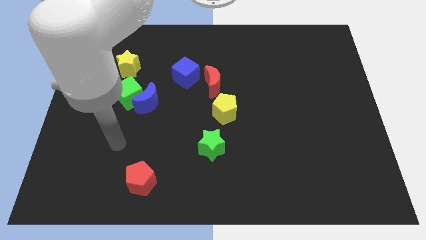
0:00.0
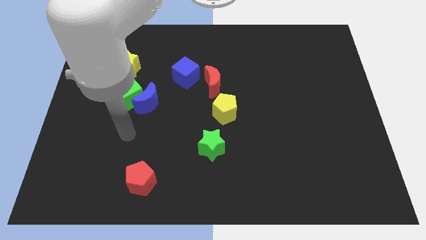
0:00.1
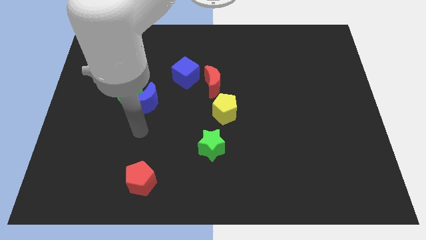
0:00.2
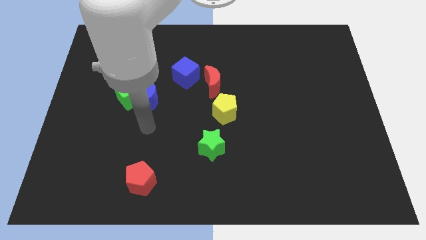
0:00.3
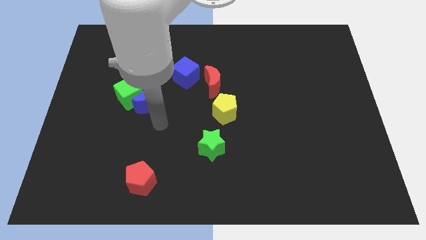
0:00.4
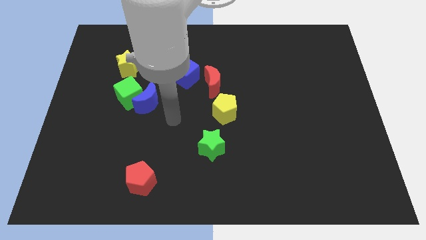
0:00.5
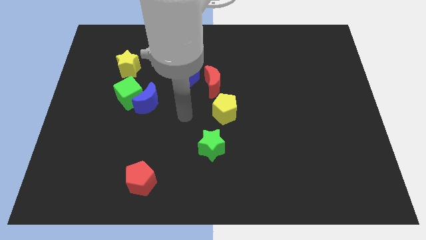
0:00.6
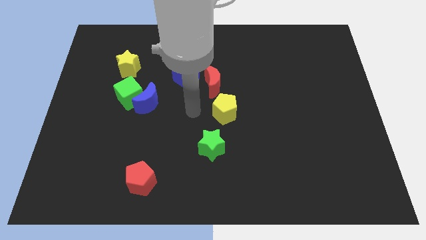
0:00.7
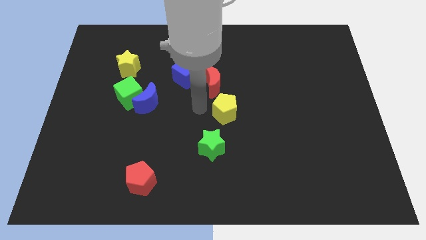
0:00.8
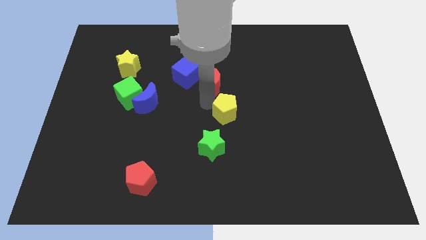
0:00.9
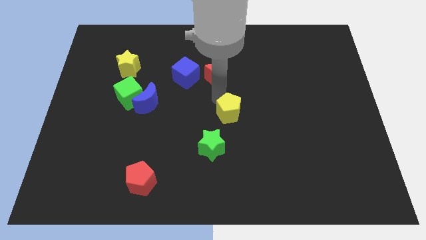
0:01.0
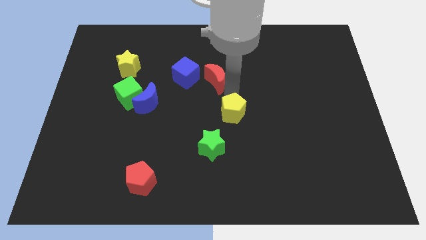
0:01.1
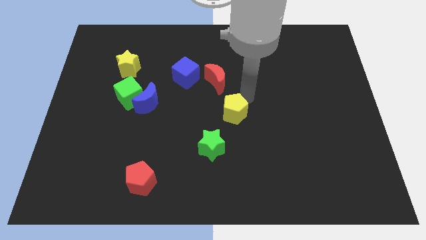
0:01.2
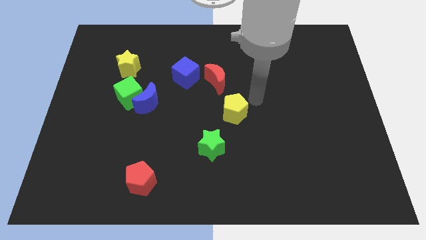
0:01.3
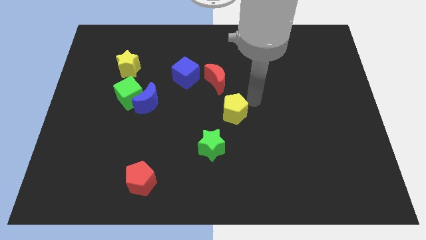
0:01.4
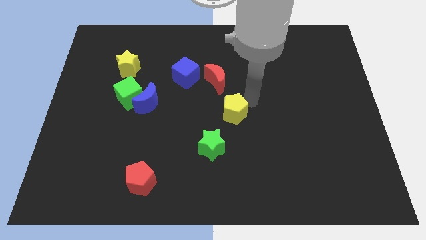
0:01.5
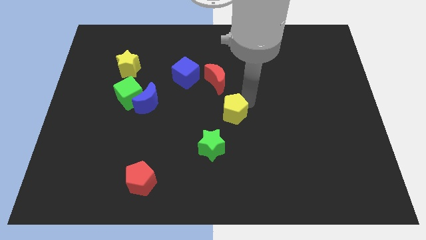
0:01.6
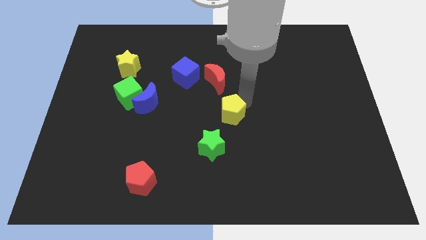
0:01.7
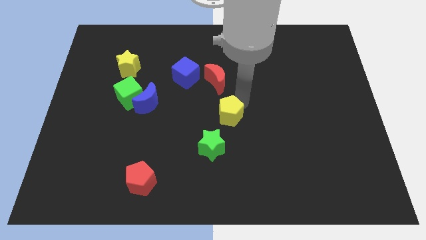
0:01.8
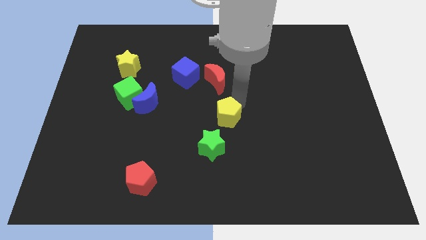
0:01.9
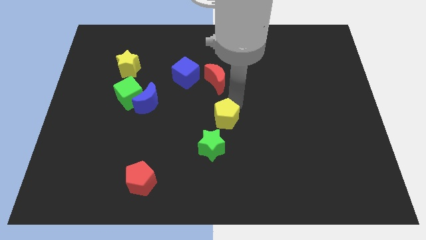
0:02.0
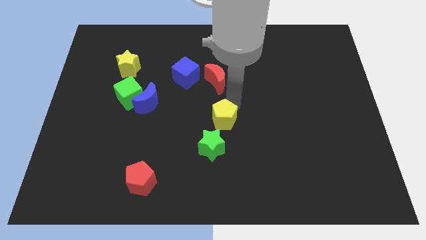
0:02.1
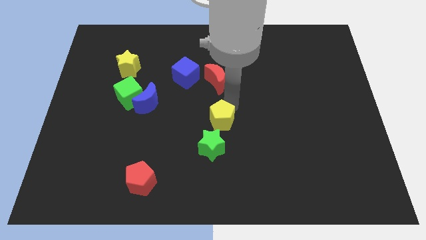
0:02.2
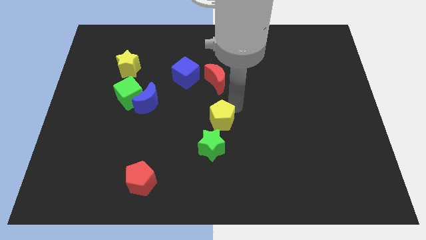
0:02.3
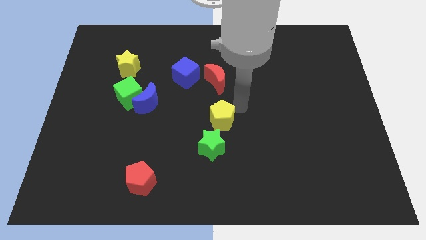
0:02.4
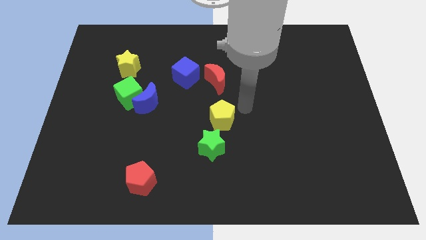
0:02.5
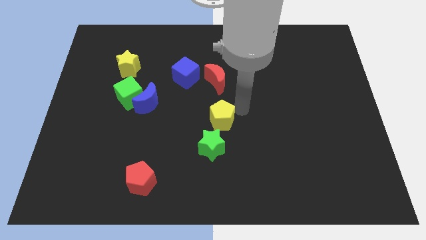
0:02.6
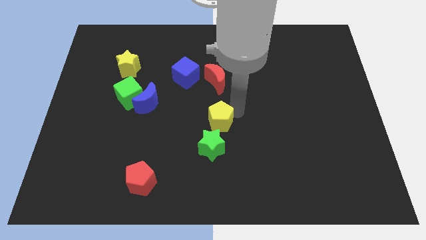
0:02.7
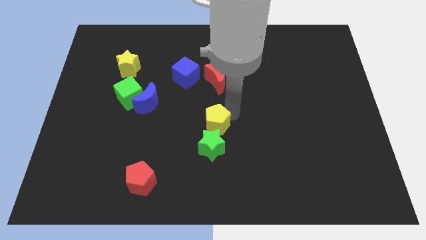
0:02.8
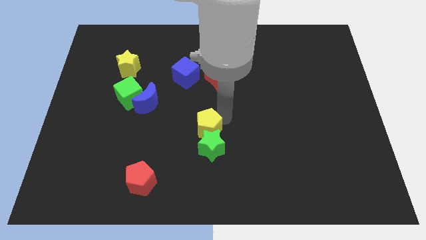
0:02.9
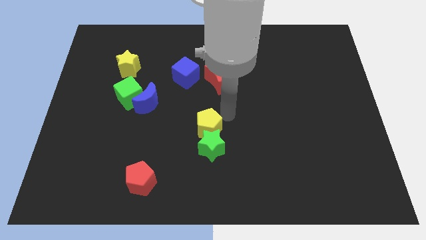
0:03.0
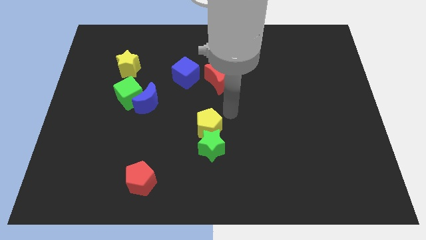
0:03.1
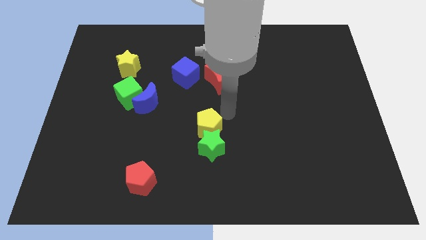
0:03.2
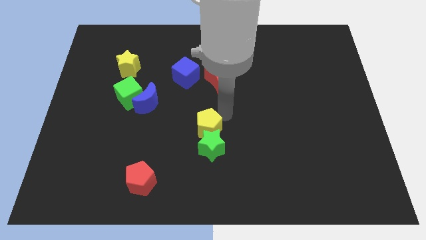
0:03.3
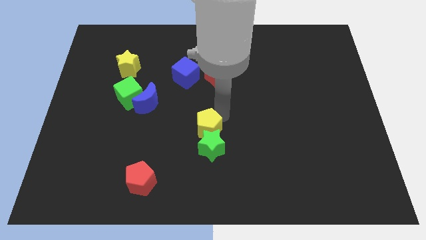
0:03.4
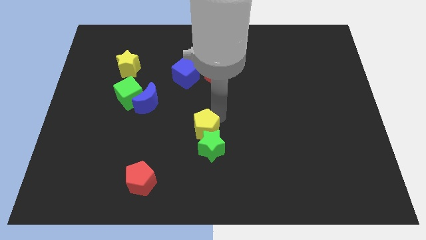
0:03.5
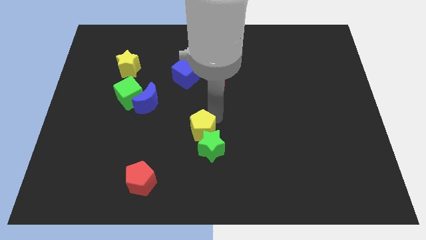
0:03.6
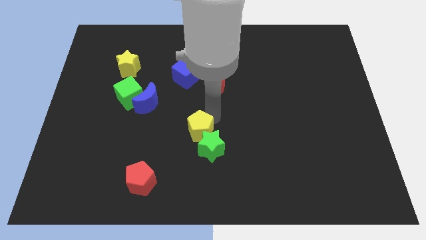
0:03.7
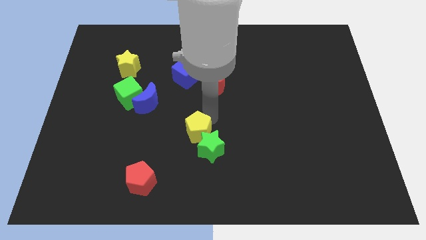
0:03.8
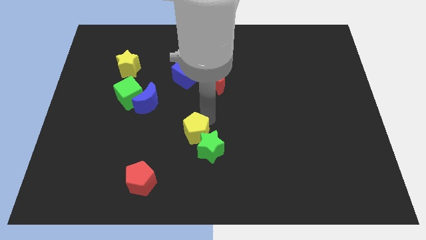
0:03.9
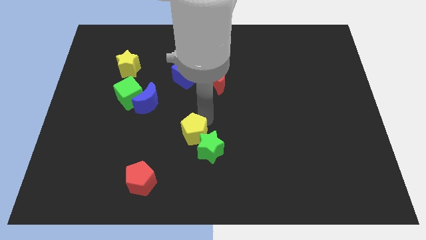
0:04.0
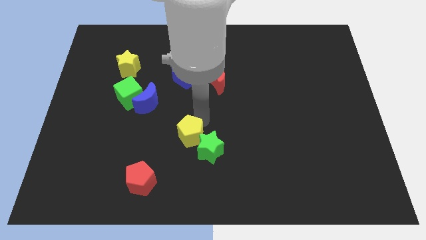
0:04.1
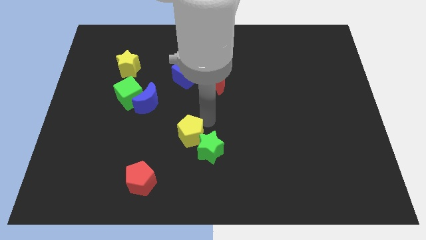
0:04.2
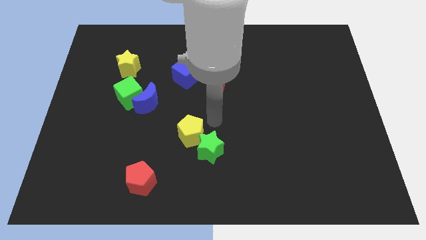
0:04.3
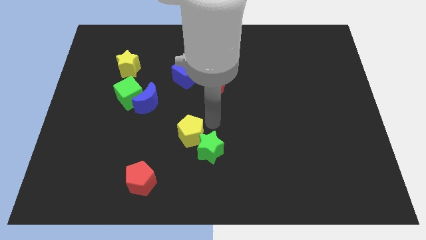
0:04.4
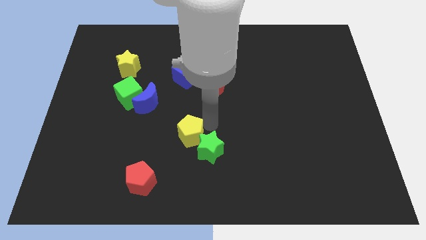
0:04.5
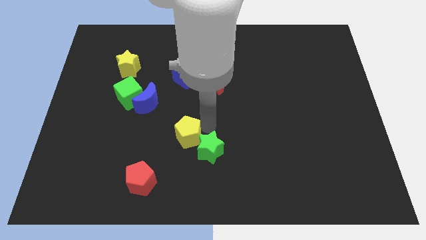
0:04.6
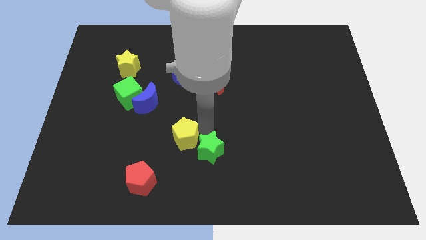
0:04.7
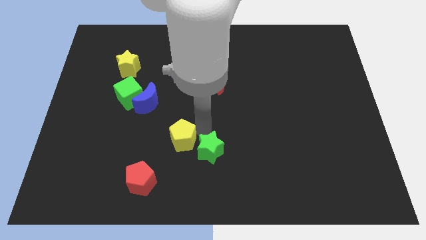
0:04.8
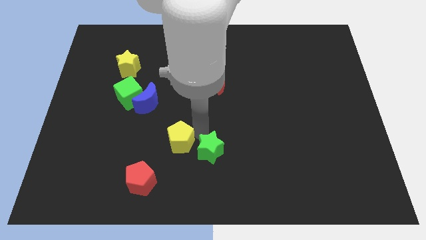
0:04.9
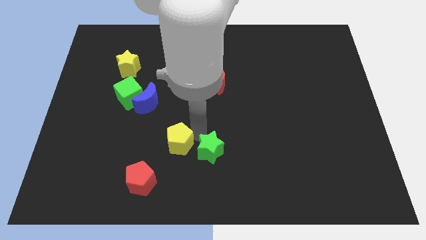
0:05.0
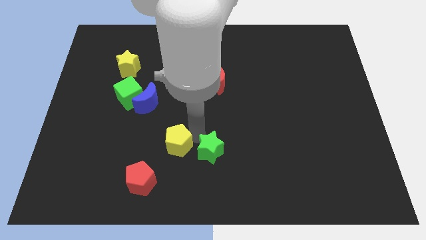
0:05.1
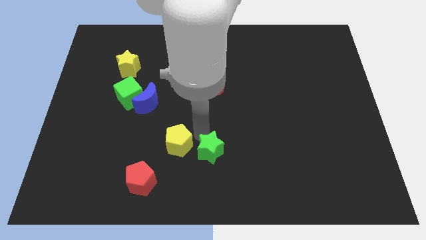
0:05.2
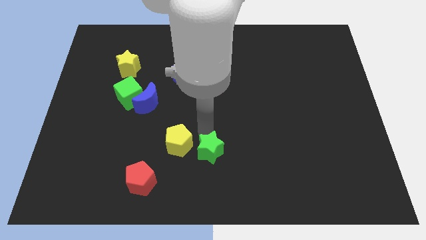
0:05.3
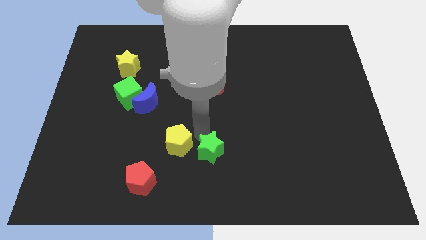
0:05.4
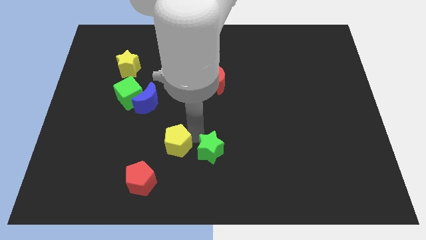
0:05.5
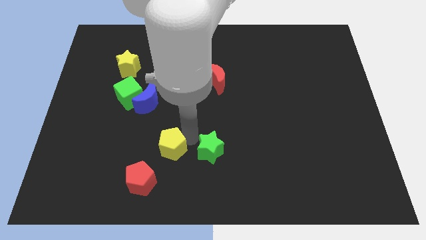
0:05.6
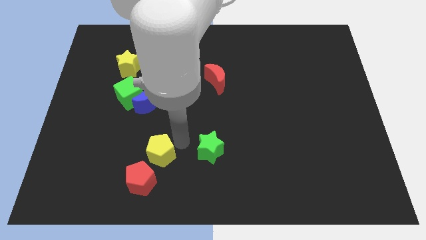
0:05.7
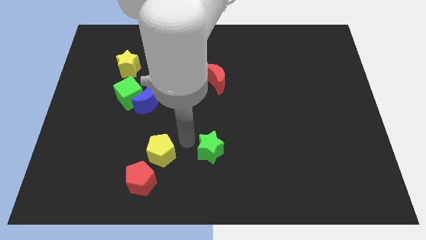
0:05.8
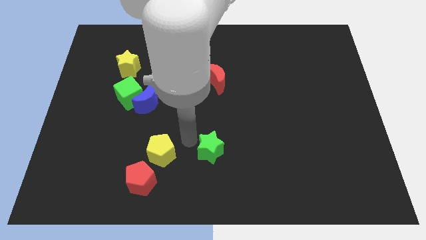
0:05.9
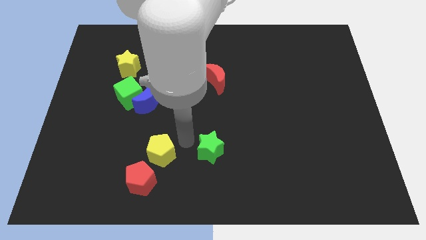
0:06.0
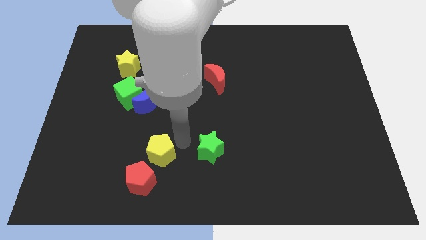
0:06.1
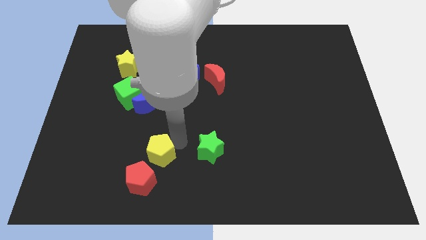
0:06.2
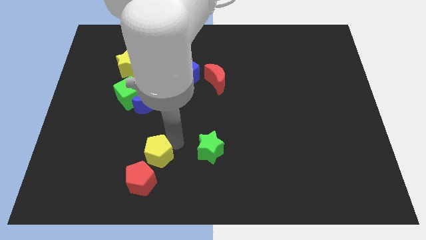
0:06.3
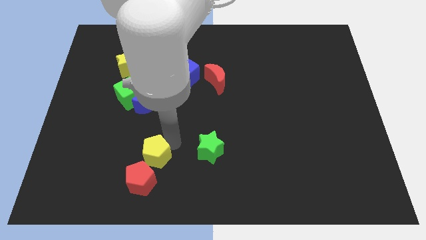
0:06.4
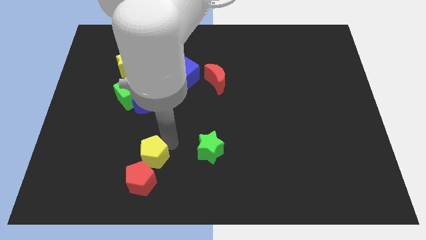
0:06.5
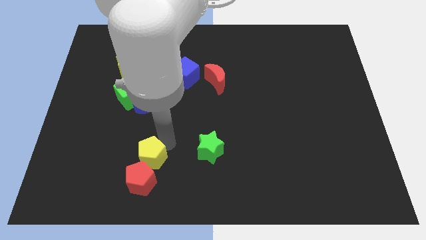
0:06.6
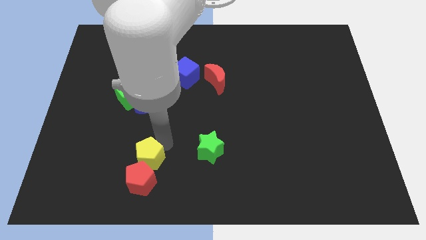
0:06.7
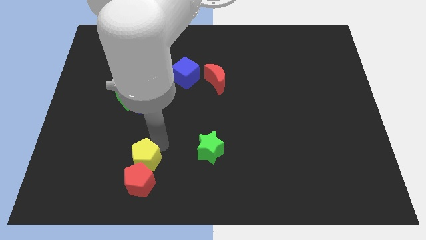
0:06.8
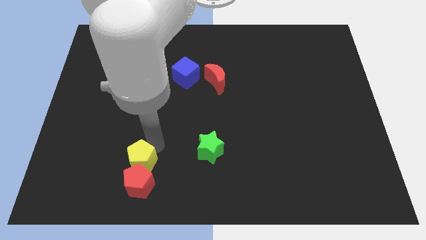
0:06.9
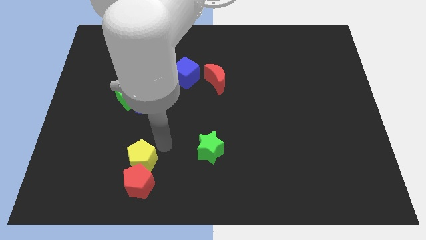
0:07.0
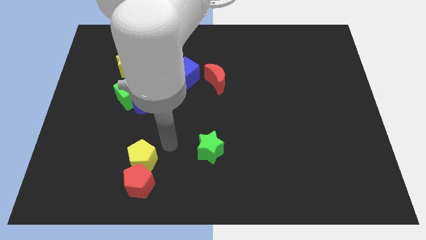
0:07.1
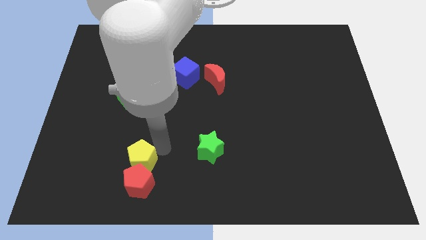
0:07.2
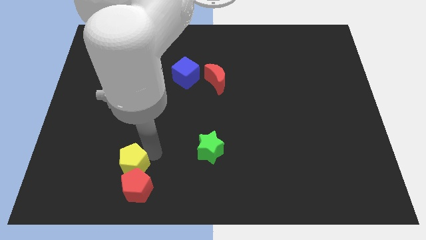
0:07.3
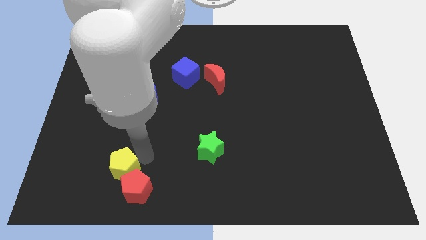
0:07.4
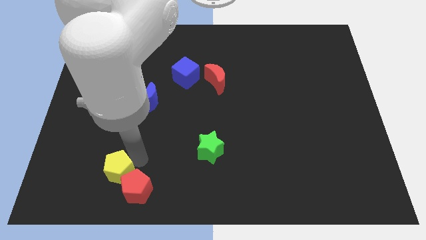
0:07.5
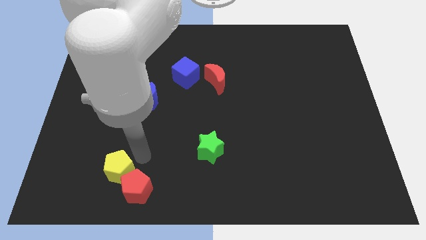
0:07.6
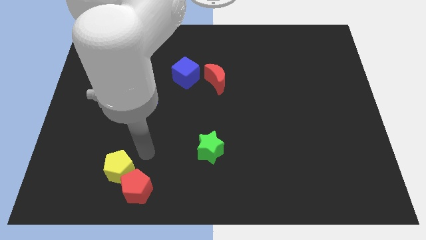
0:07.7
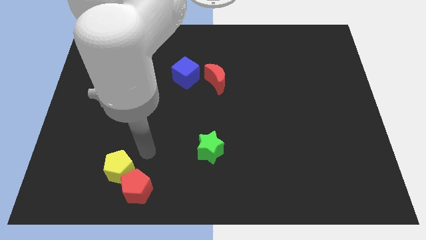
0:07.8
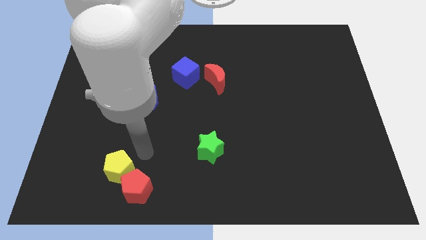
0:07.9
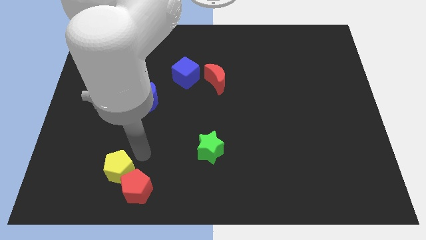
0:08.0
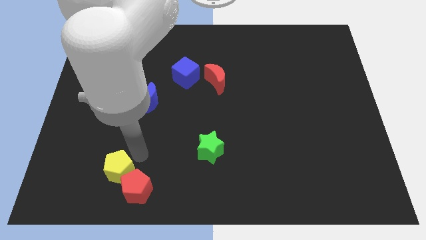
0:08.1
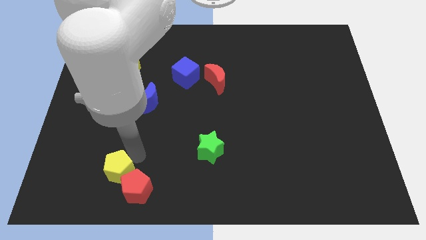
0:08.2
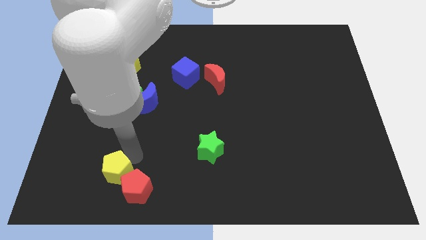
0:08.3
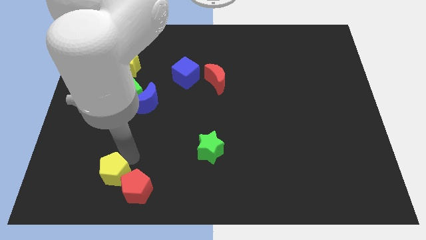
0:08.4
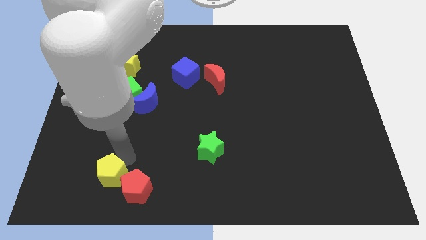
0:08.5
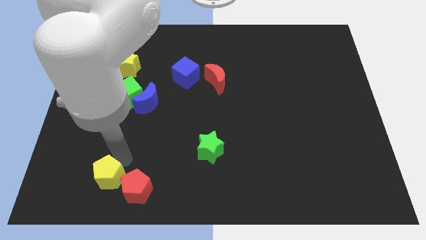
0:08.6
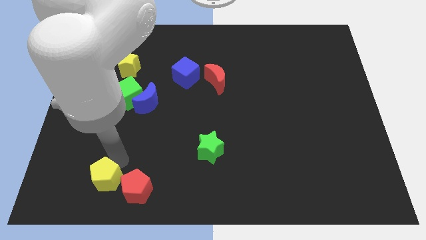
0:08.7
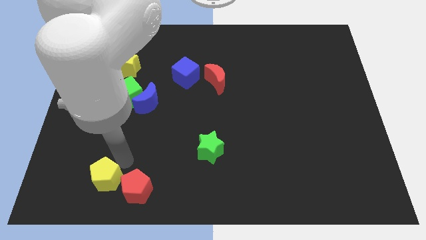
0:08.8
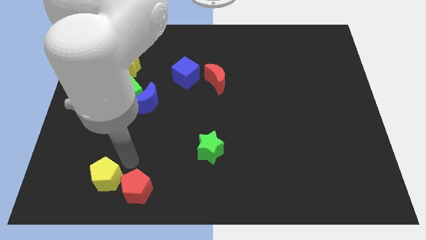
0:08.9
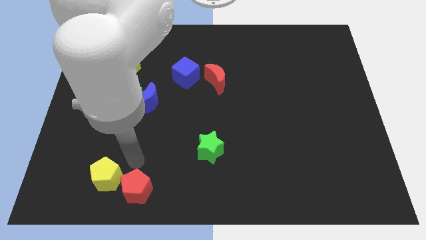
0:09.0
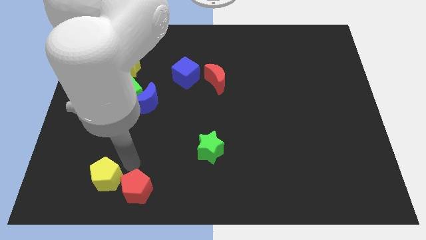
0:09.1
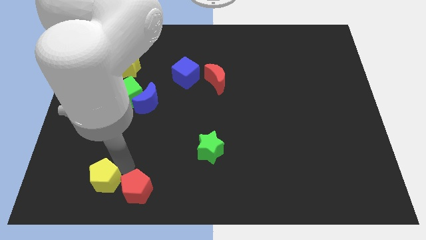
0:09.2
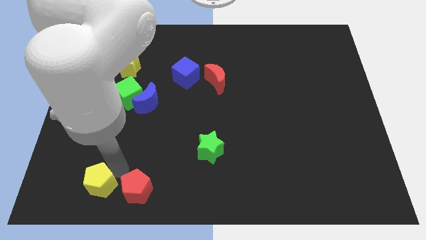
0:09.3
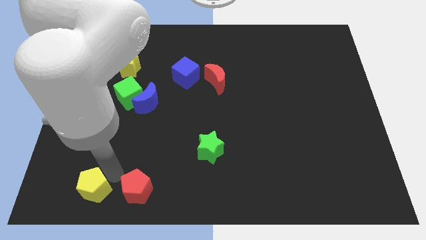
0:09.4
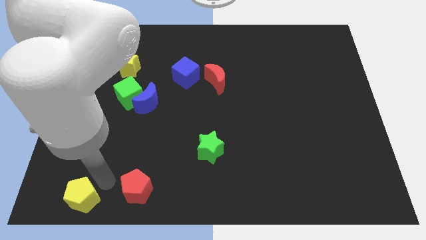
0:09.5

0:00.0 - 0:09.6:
push the yellow pentagon to the bottom left
